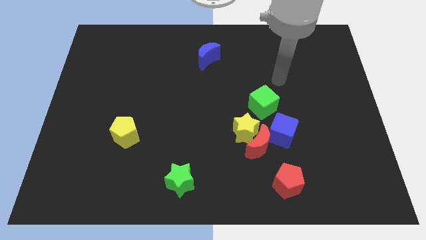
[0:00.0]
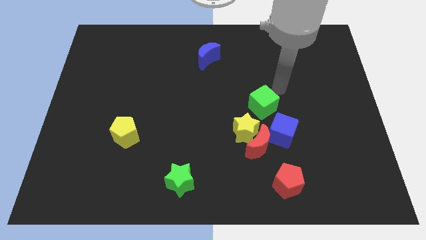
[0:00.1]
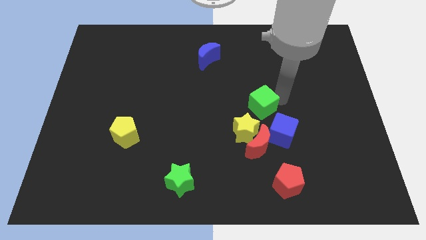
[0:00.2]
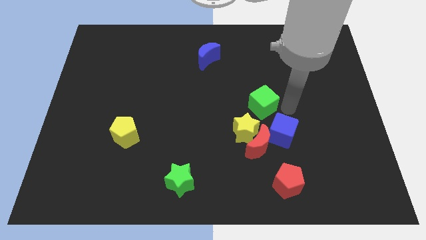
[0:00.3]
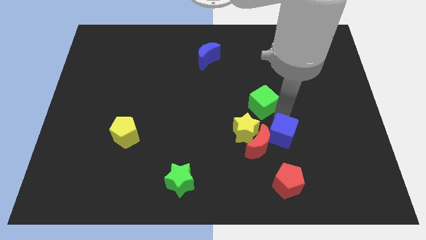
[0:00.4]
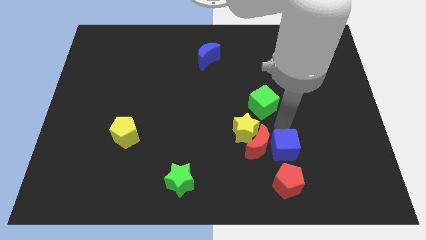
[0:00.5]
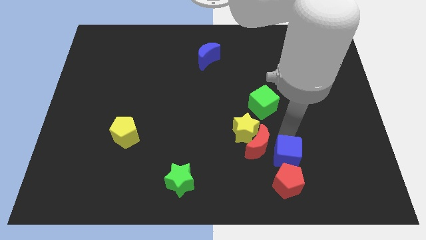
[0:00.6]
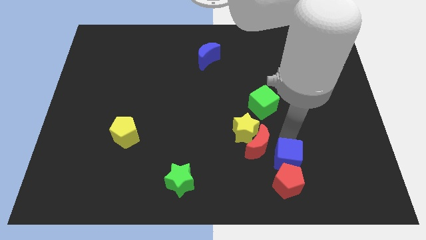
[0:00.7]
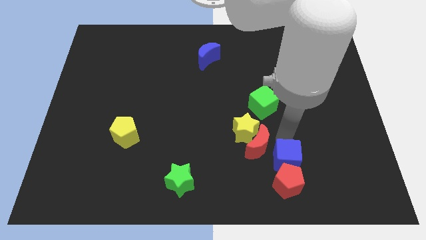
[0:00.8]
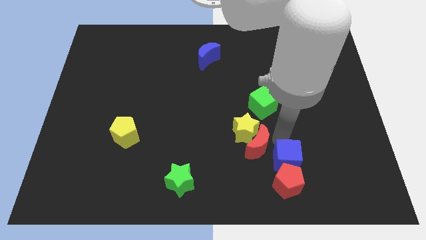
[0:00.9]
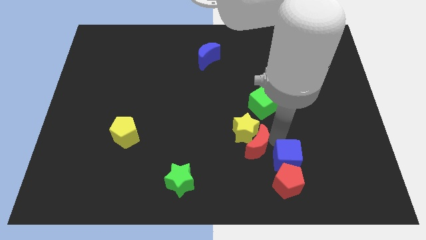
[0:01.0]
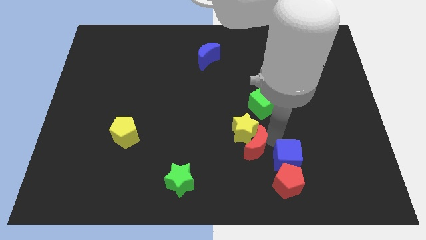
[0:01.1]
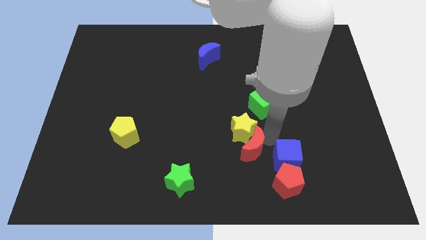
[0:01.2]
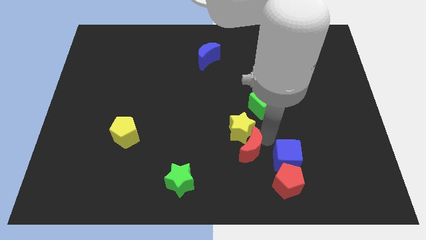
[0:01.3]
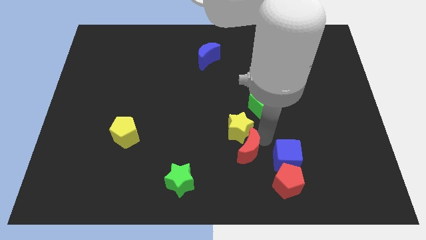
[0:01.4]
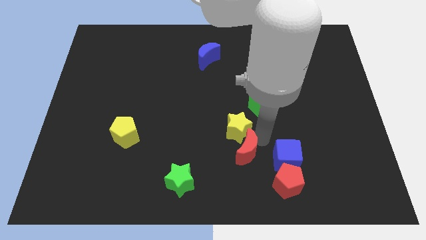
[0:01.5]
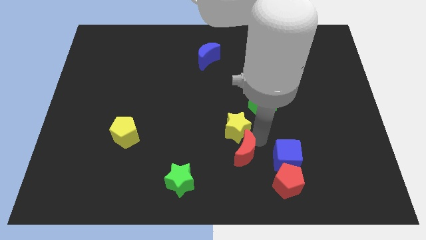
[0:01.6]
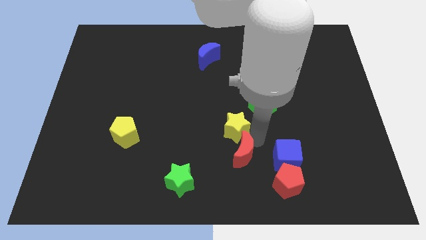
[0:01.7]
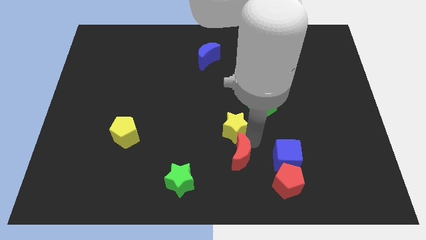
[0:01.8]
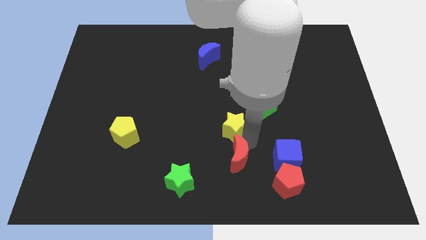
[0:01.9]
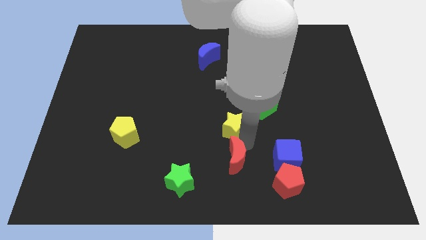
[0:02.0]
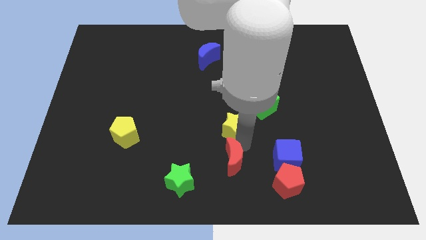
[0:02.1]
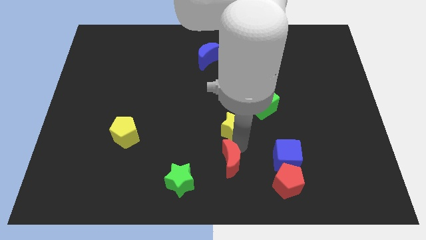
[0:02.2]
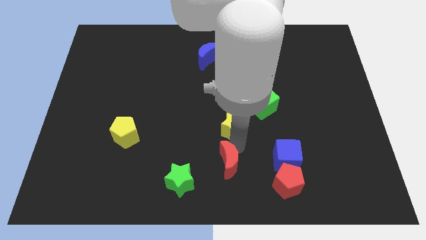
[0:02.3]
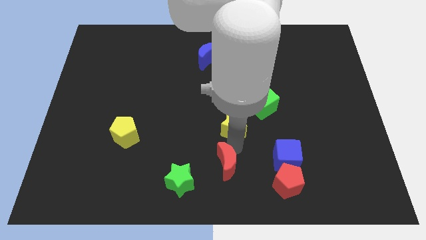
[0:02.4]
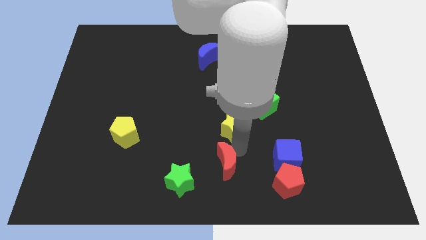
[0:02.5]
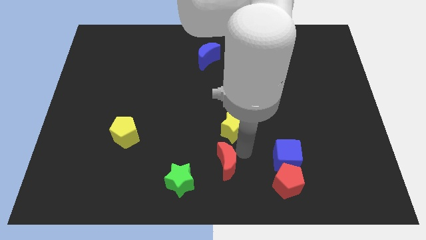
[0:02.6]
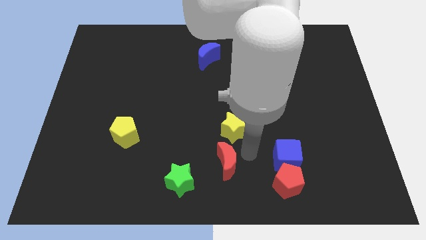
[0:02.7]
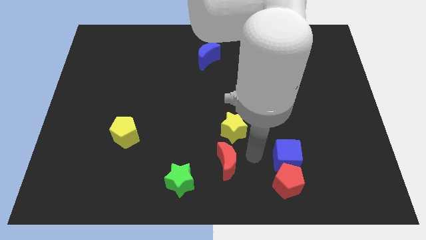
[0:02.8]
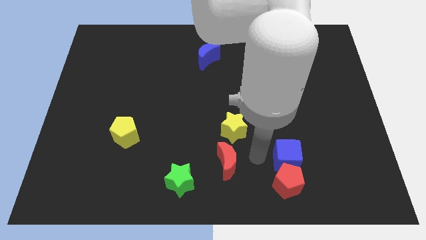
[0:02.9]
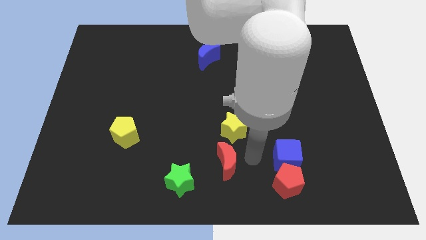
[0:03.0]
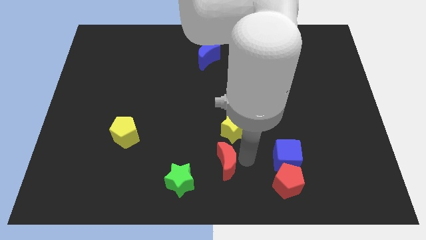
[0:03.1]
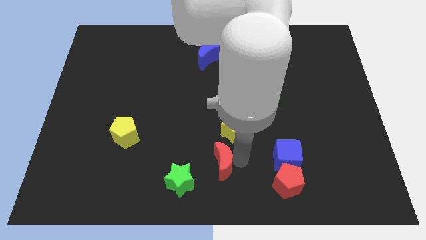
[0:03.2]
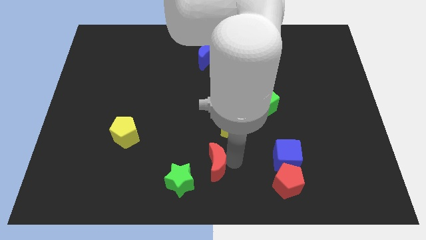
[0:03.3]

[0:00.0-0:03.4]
move the red moon away from the yellow star, blue cube, and red pentagon

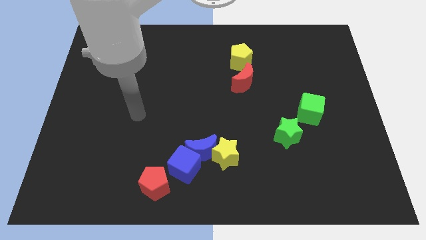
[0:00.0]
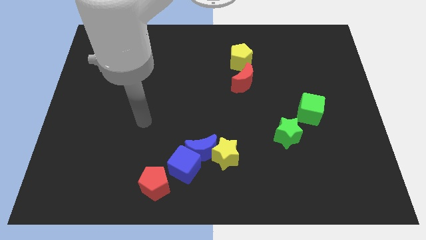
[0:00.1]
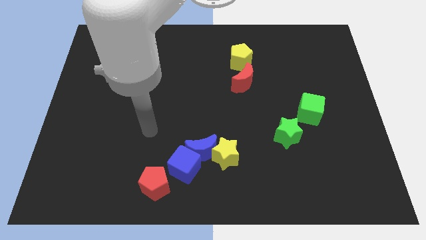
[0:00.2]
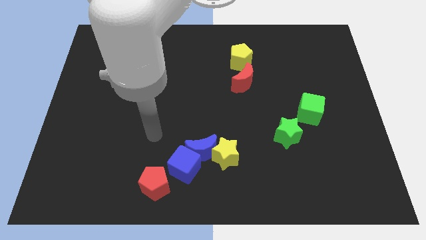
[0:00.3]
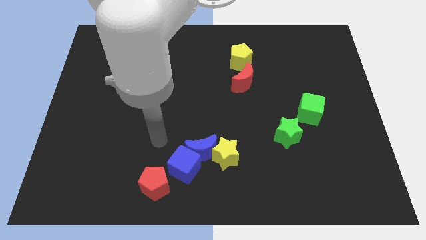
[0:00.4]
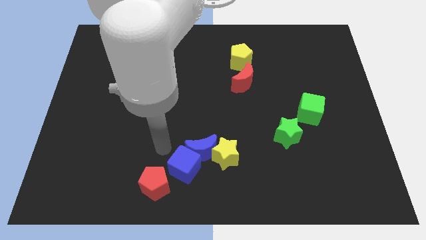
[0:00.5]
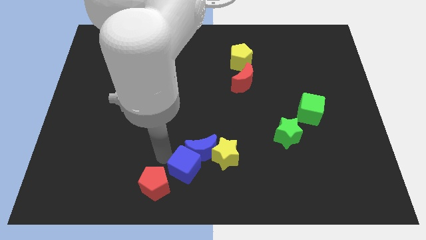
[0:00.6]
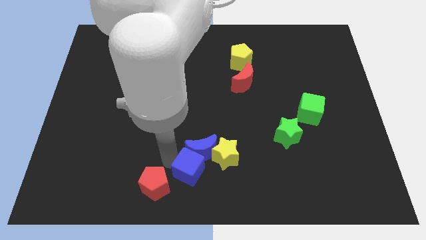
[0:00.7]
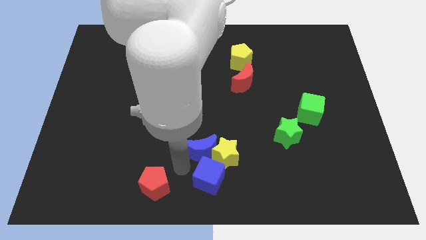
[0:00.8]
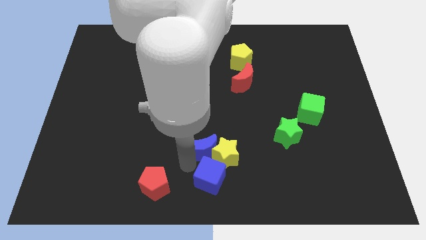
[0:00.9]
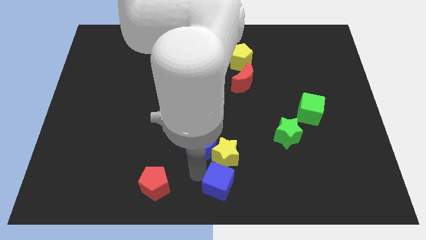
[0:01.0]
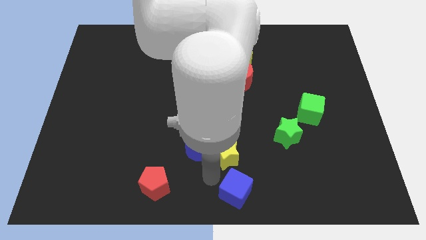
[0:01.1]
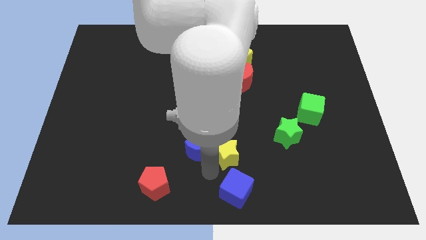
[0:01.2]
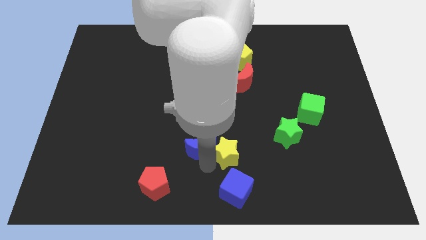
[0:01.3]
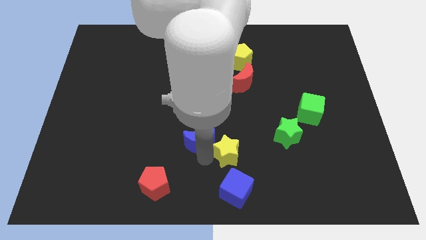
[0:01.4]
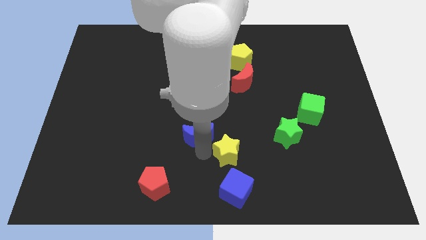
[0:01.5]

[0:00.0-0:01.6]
move the blue moon away from the yellow star and blue cube

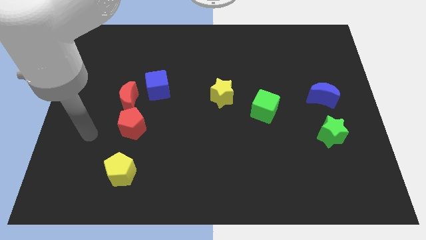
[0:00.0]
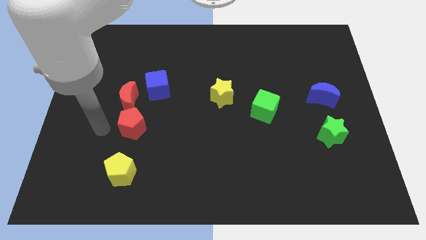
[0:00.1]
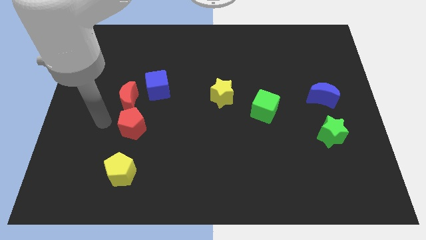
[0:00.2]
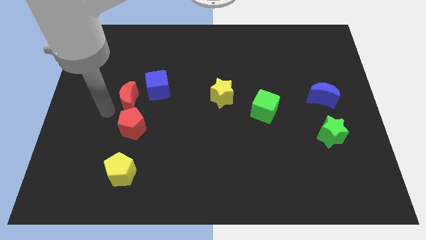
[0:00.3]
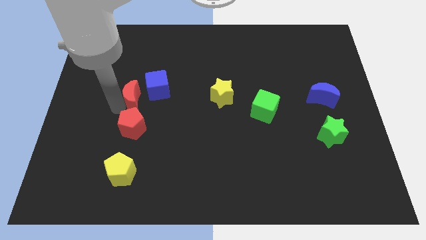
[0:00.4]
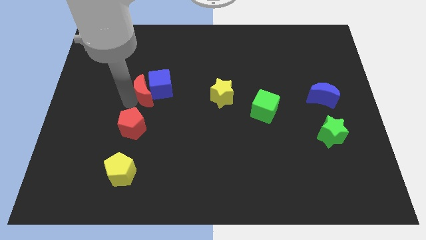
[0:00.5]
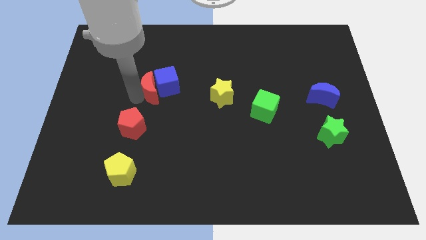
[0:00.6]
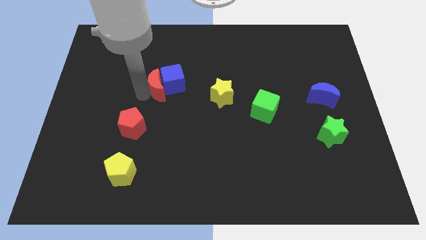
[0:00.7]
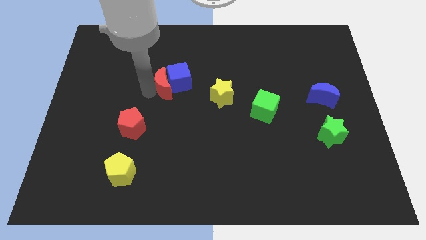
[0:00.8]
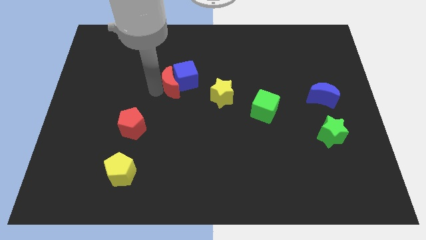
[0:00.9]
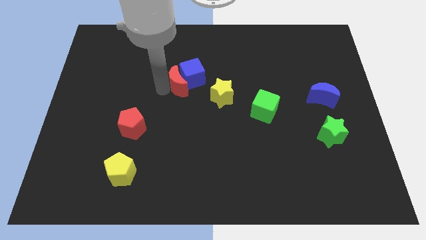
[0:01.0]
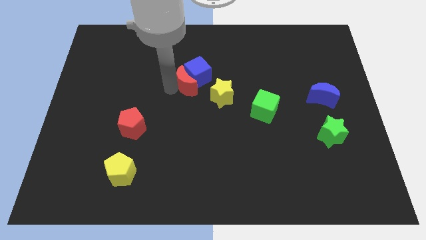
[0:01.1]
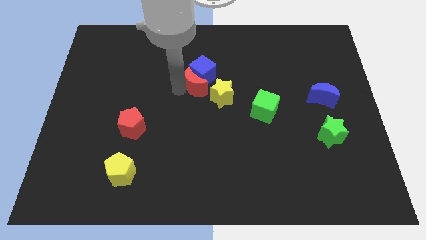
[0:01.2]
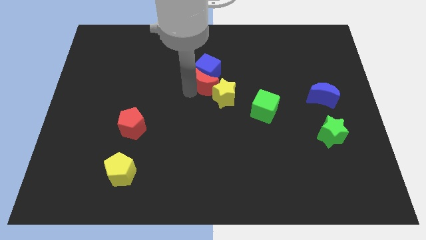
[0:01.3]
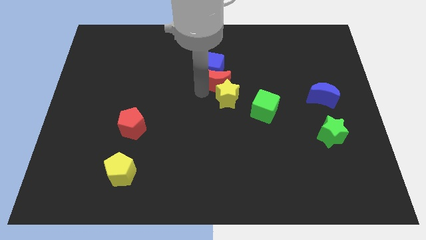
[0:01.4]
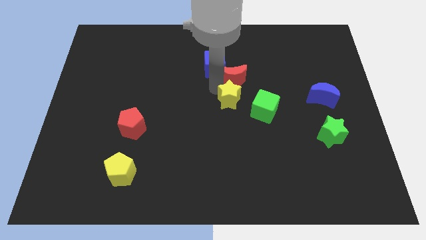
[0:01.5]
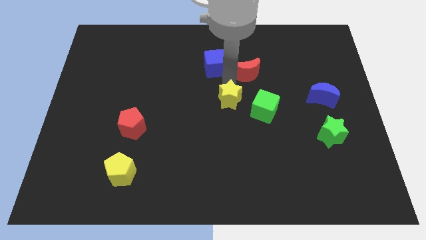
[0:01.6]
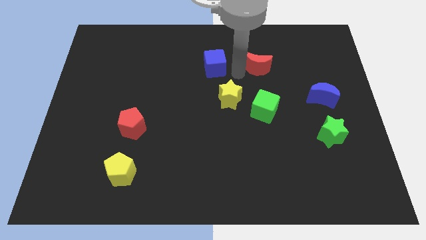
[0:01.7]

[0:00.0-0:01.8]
separate the blue cube from the red moon

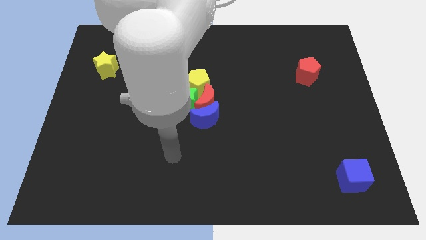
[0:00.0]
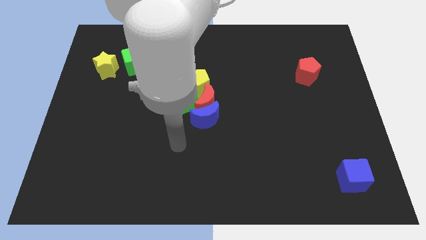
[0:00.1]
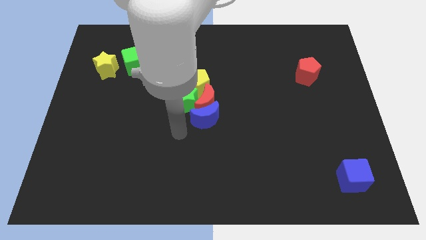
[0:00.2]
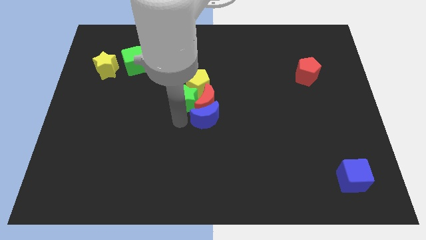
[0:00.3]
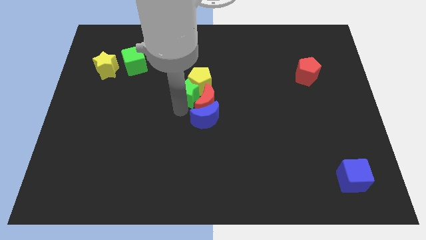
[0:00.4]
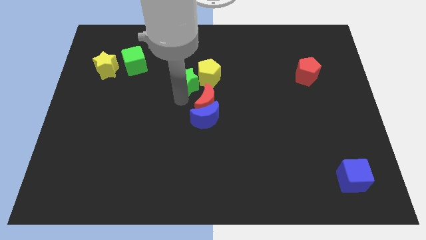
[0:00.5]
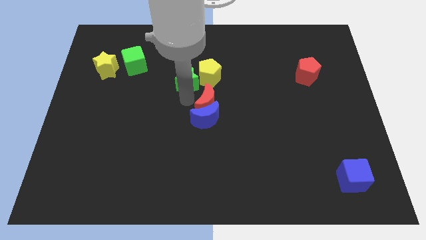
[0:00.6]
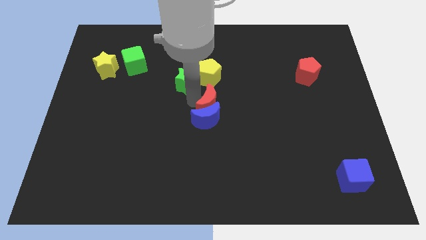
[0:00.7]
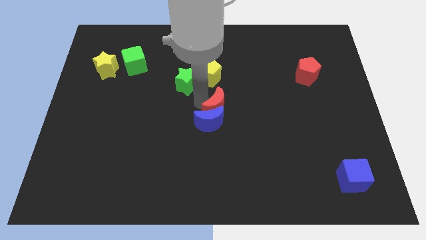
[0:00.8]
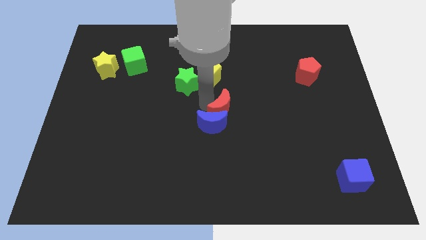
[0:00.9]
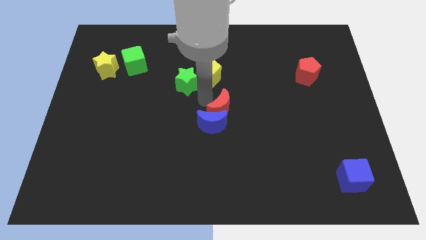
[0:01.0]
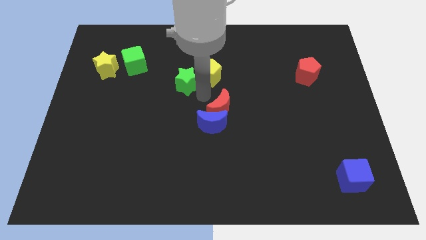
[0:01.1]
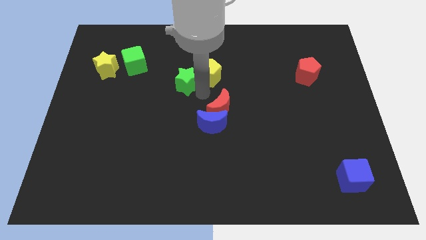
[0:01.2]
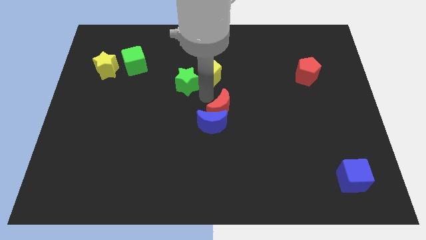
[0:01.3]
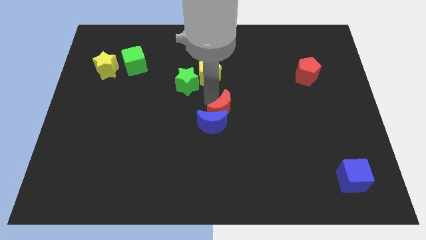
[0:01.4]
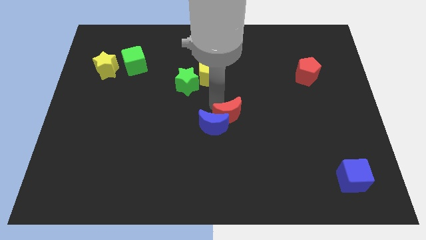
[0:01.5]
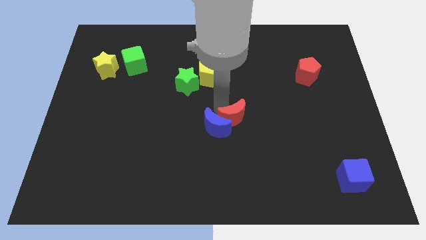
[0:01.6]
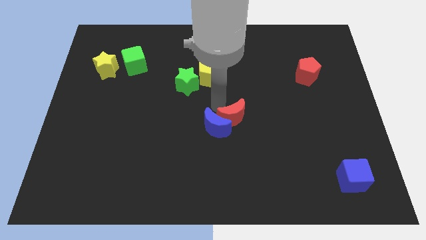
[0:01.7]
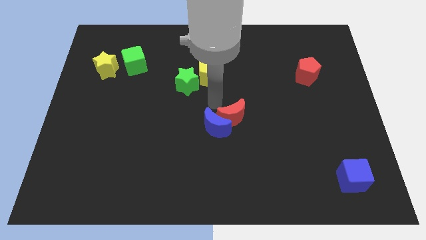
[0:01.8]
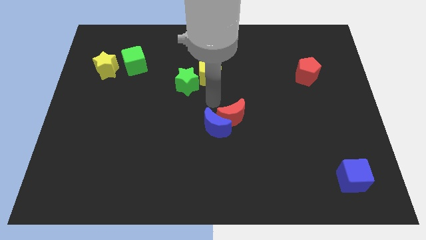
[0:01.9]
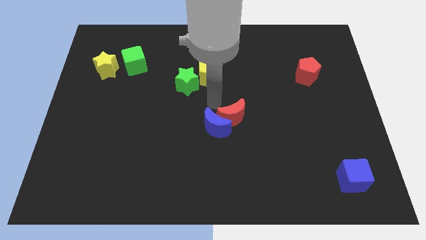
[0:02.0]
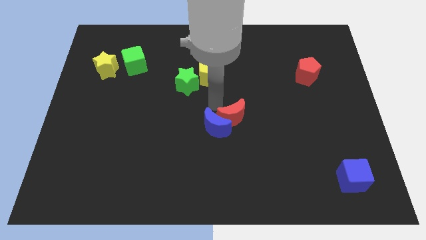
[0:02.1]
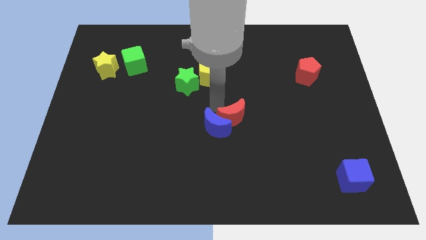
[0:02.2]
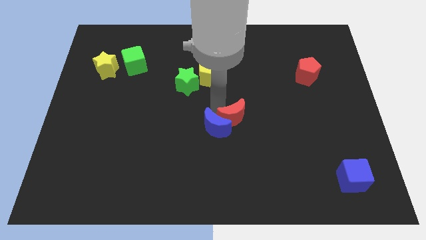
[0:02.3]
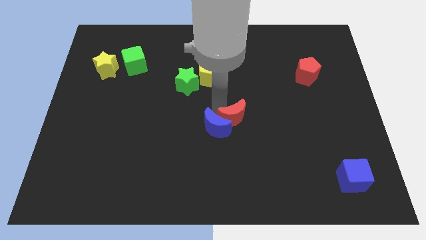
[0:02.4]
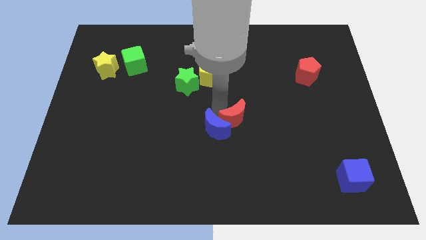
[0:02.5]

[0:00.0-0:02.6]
move the red moon away from the blue moon, green star, and yellow pentagon
